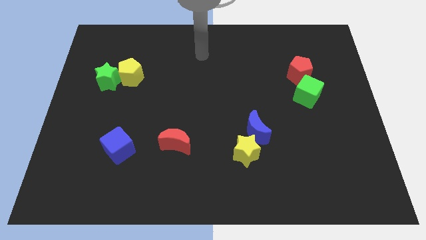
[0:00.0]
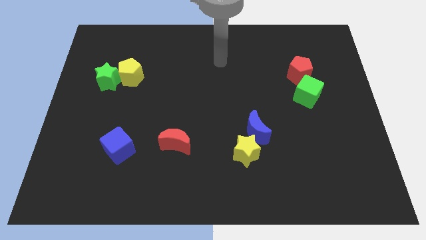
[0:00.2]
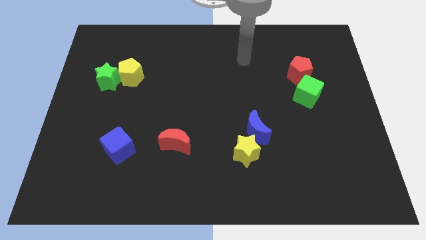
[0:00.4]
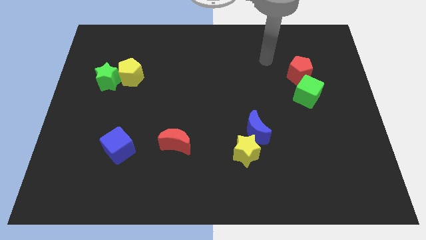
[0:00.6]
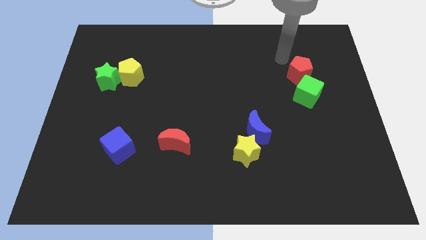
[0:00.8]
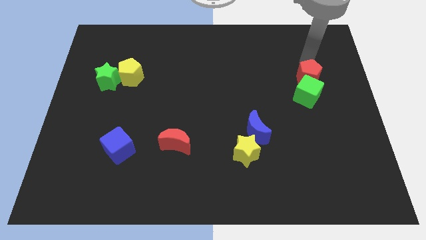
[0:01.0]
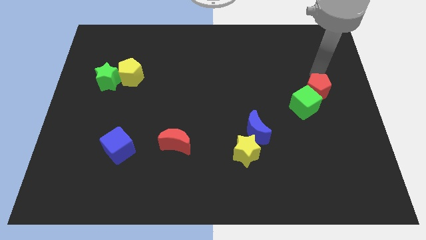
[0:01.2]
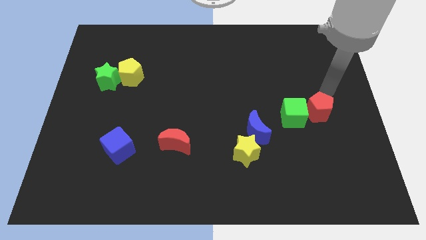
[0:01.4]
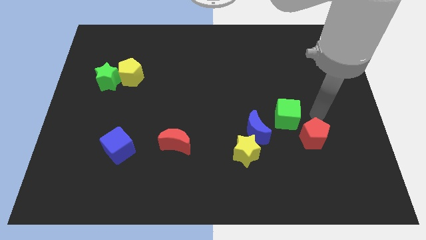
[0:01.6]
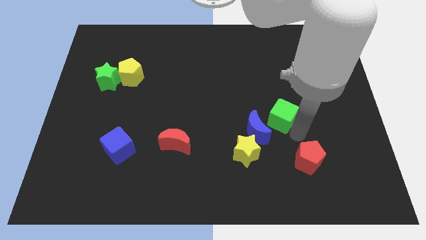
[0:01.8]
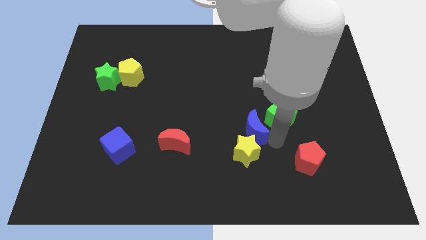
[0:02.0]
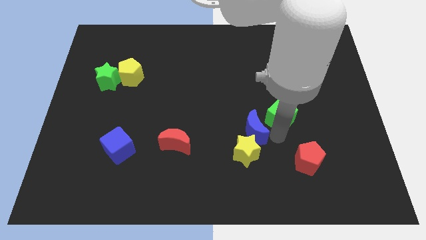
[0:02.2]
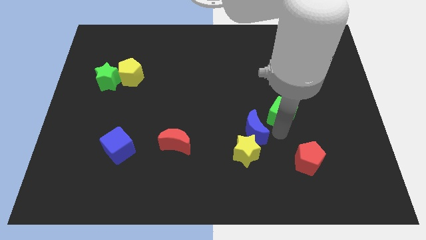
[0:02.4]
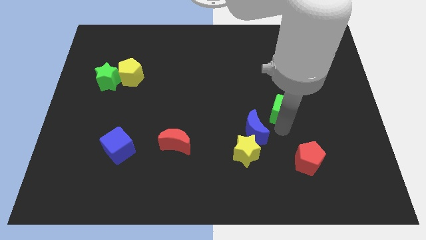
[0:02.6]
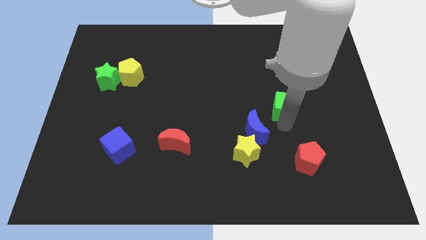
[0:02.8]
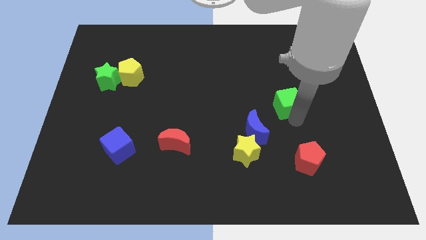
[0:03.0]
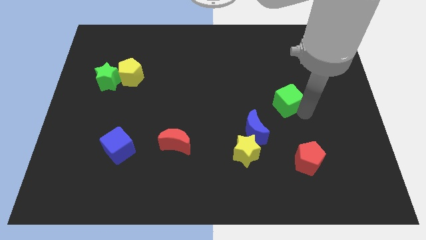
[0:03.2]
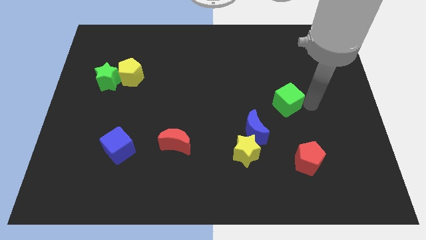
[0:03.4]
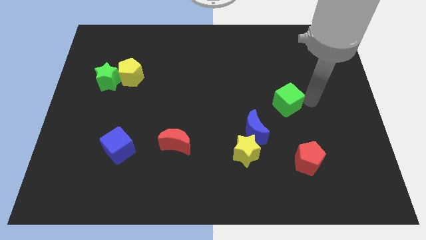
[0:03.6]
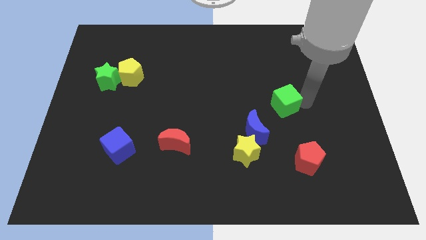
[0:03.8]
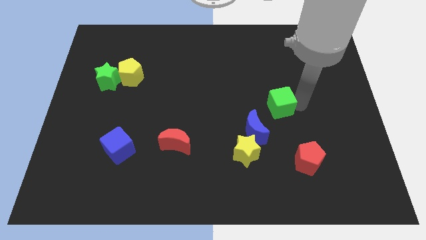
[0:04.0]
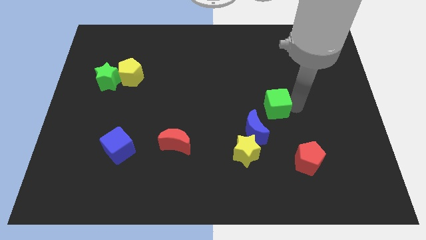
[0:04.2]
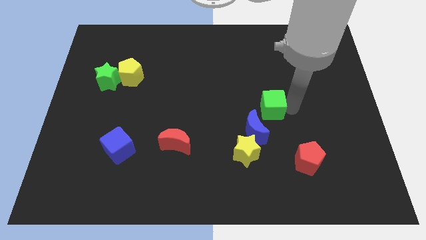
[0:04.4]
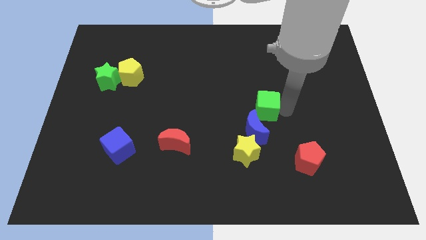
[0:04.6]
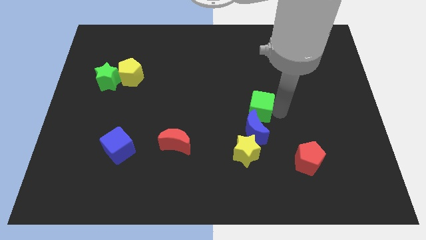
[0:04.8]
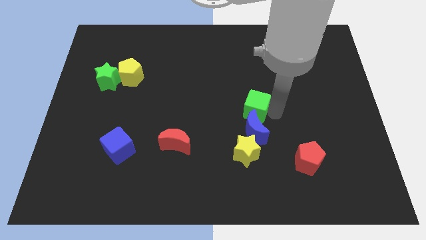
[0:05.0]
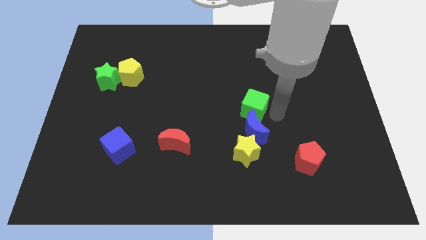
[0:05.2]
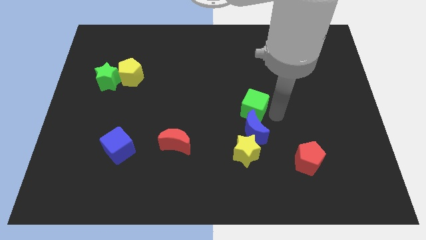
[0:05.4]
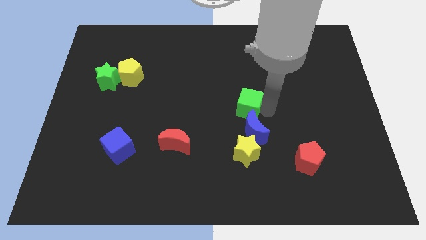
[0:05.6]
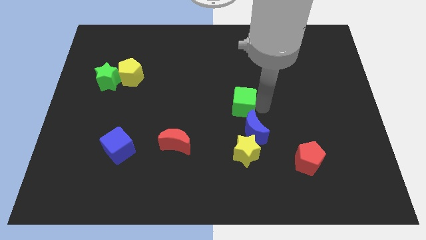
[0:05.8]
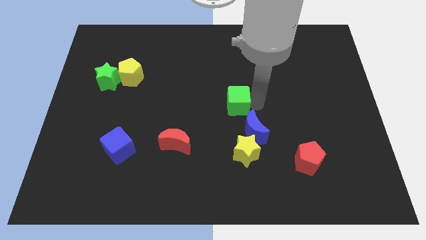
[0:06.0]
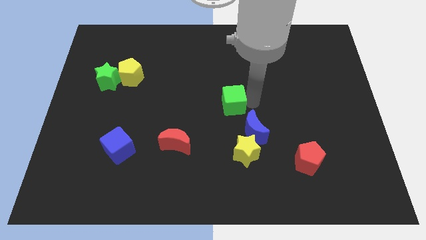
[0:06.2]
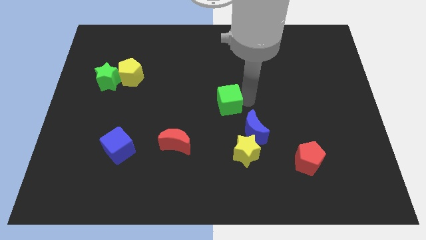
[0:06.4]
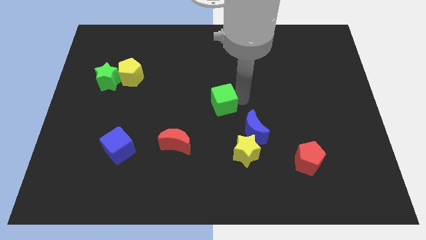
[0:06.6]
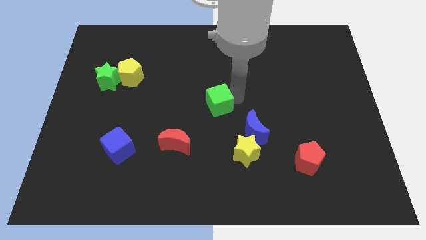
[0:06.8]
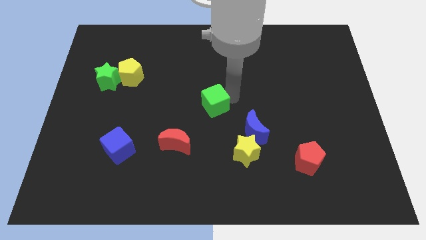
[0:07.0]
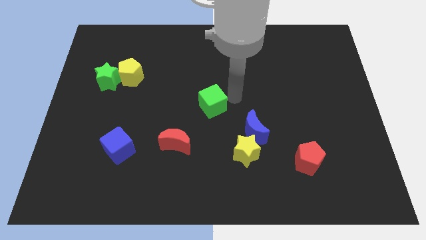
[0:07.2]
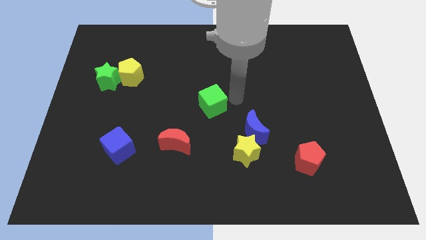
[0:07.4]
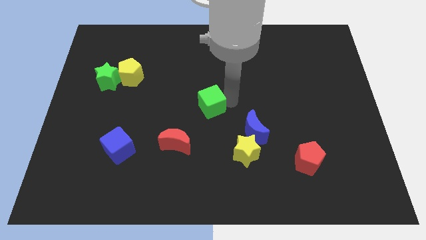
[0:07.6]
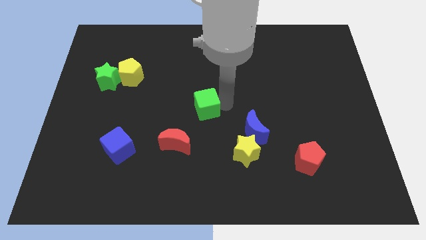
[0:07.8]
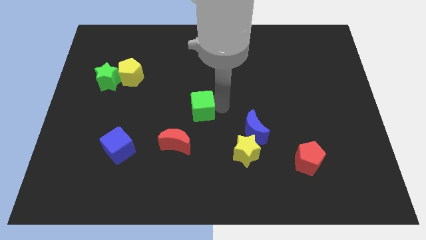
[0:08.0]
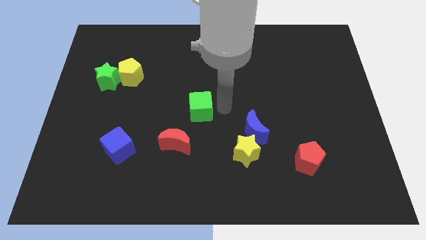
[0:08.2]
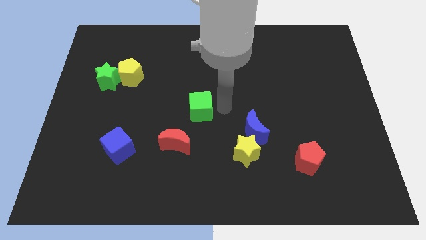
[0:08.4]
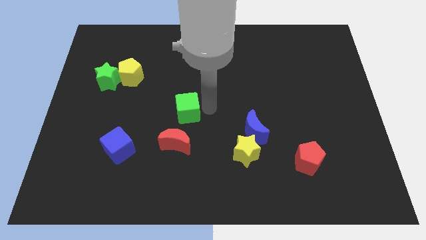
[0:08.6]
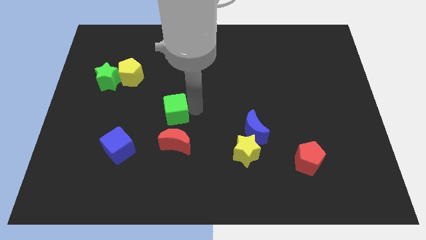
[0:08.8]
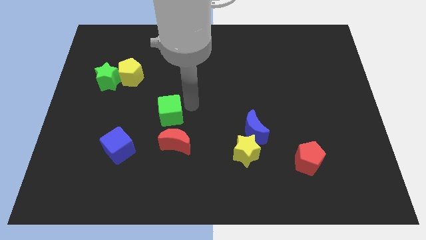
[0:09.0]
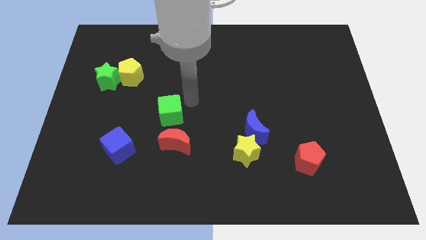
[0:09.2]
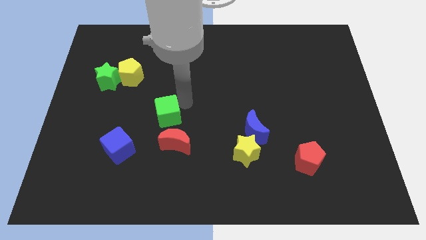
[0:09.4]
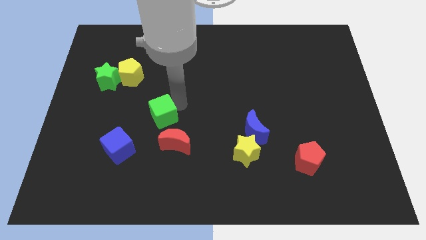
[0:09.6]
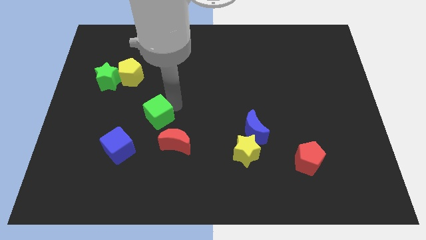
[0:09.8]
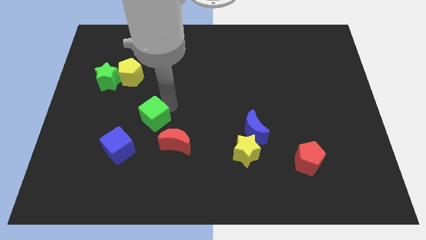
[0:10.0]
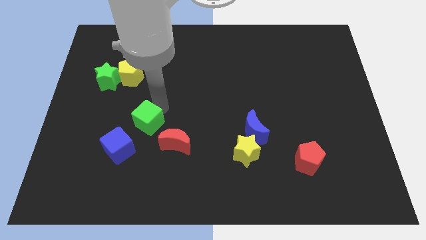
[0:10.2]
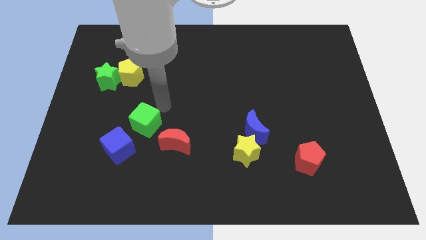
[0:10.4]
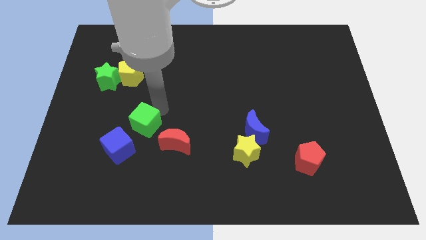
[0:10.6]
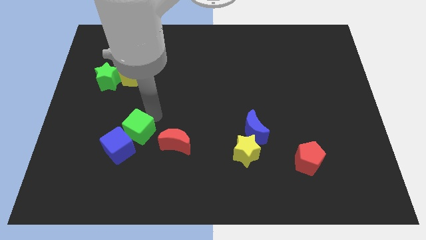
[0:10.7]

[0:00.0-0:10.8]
push the green cube to the blue cube

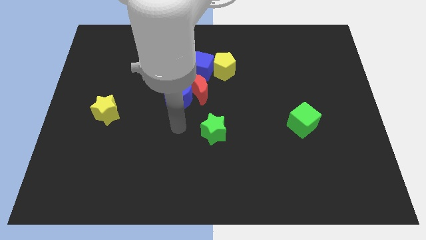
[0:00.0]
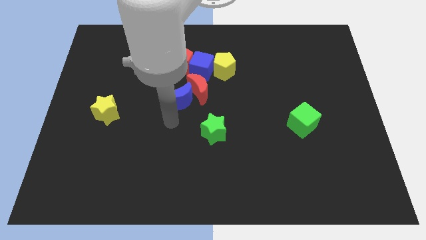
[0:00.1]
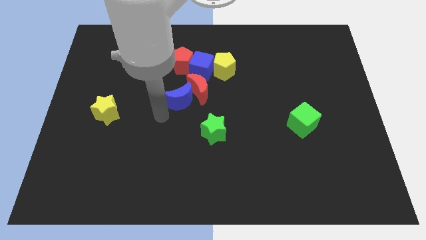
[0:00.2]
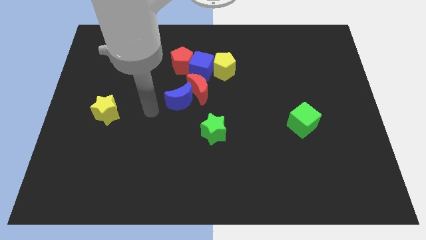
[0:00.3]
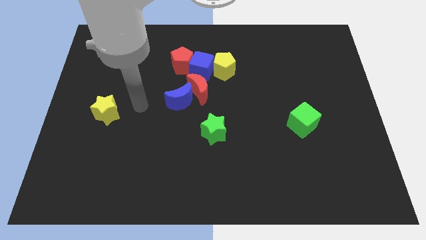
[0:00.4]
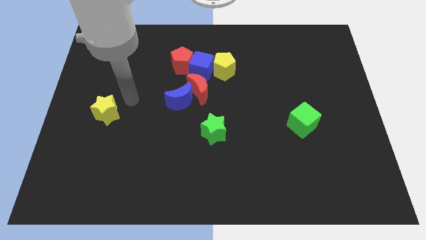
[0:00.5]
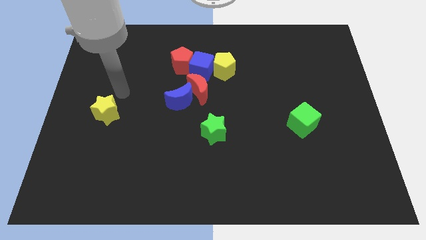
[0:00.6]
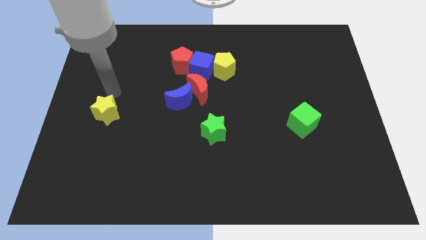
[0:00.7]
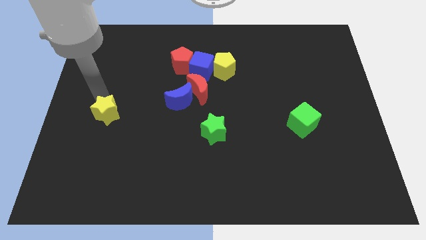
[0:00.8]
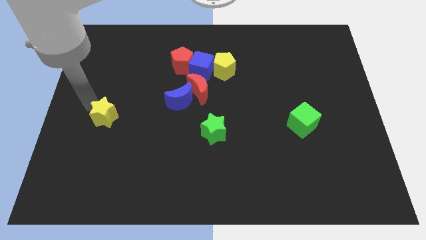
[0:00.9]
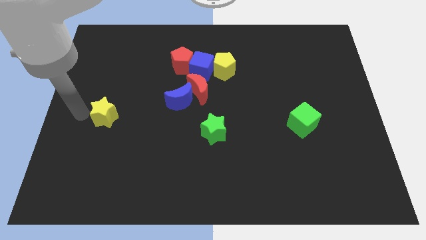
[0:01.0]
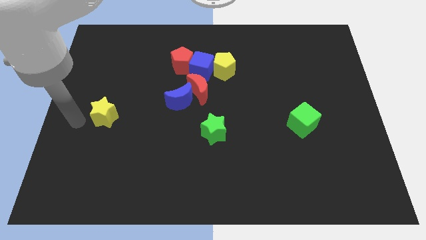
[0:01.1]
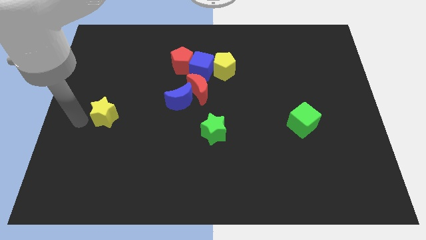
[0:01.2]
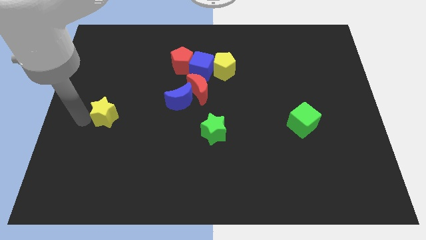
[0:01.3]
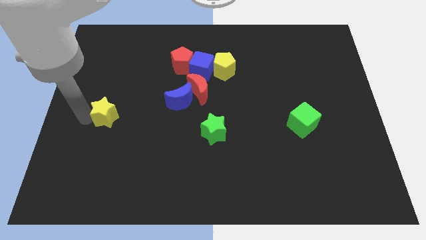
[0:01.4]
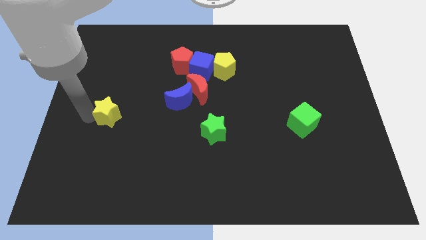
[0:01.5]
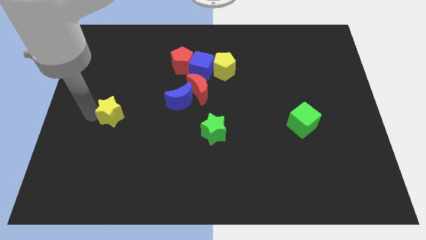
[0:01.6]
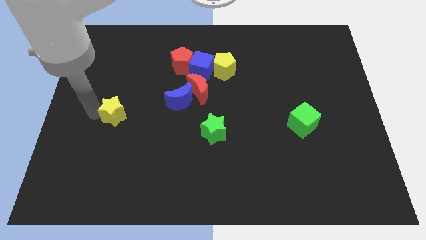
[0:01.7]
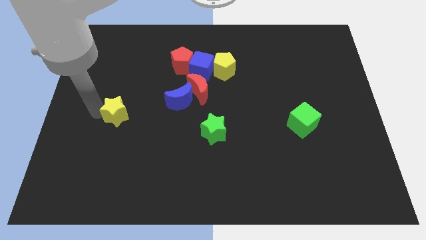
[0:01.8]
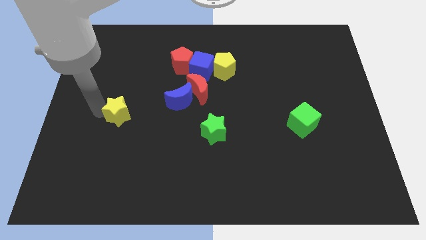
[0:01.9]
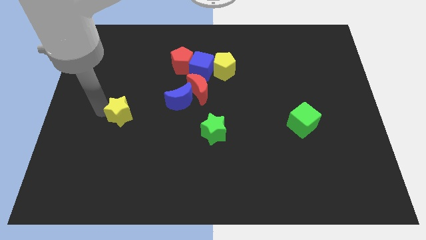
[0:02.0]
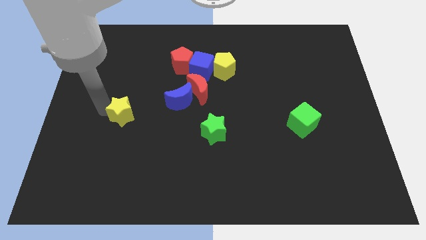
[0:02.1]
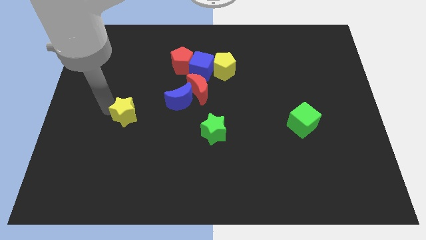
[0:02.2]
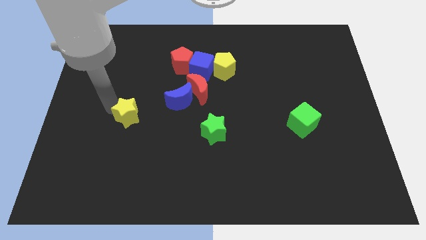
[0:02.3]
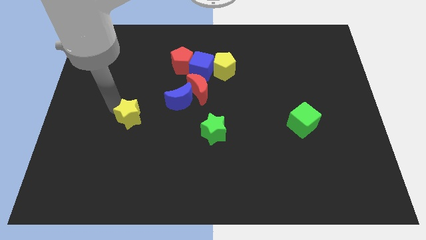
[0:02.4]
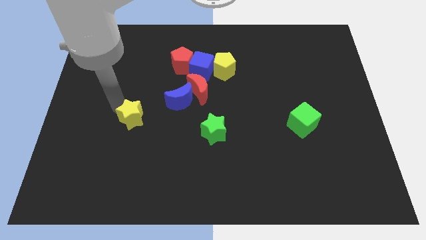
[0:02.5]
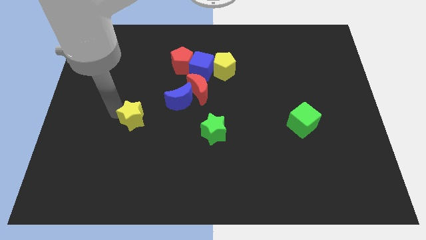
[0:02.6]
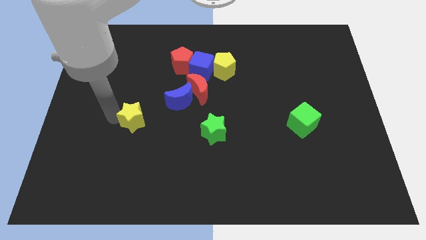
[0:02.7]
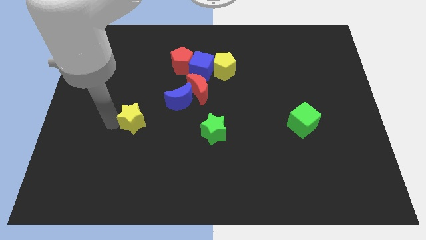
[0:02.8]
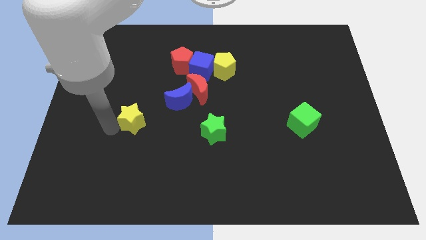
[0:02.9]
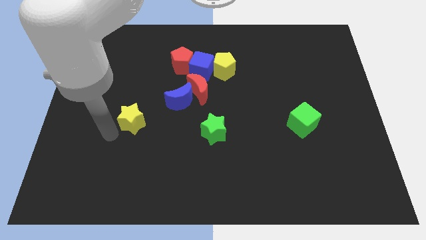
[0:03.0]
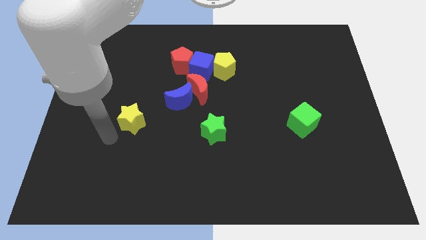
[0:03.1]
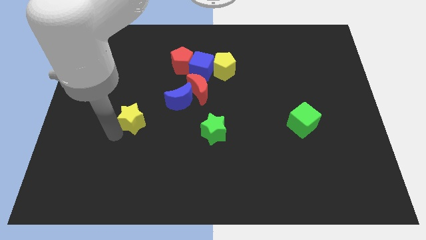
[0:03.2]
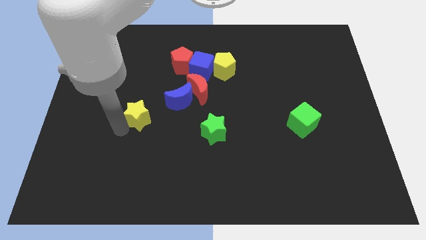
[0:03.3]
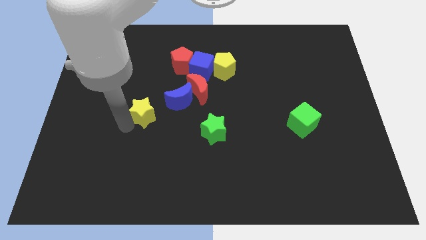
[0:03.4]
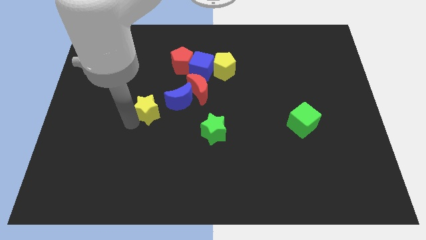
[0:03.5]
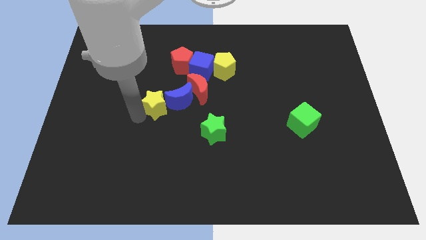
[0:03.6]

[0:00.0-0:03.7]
move the yellow star next to the blue moon
